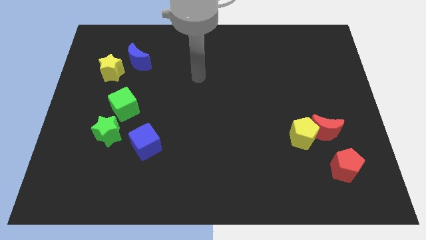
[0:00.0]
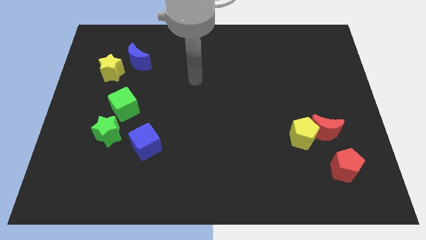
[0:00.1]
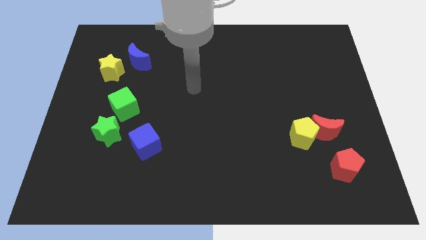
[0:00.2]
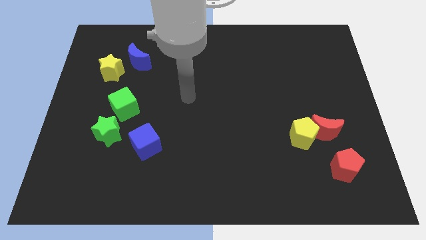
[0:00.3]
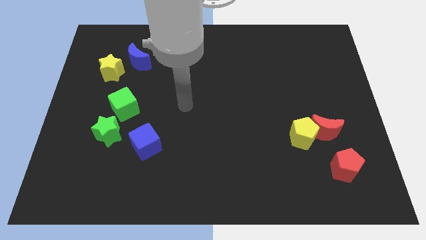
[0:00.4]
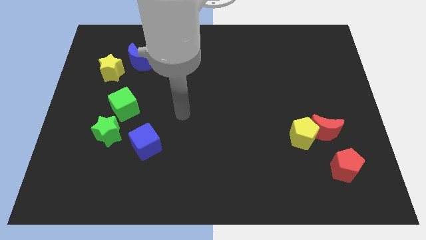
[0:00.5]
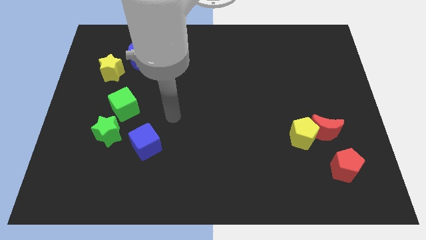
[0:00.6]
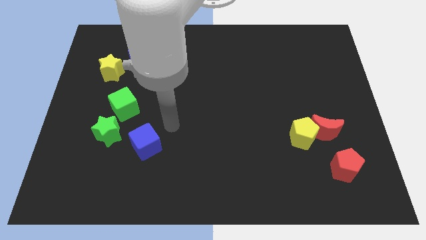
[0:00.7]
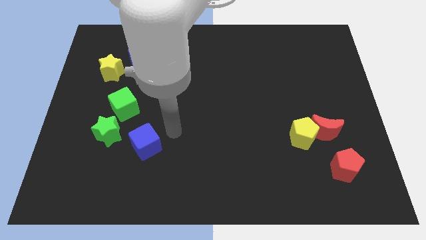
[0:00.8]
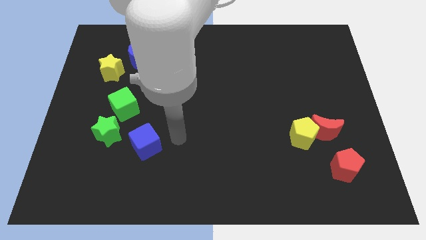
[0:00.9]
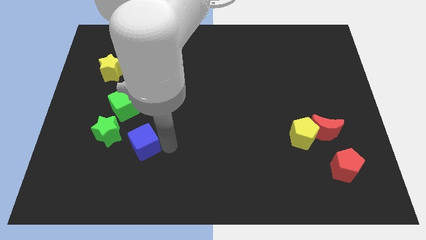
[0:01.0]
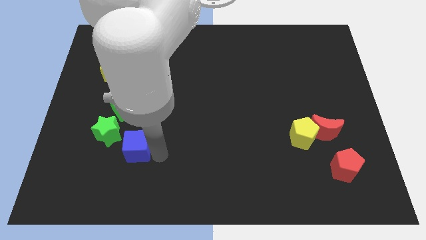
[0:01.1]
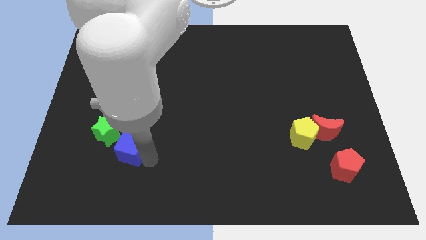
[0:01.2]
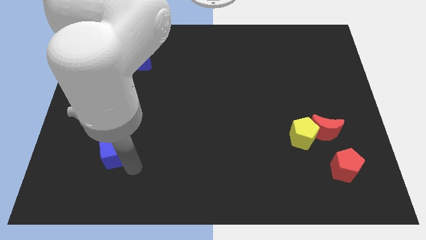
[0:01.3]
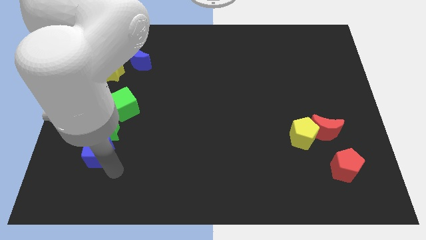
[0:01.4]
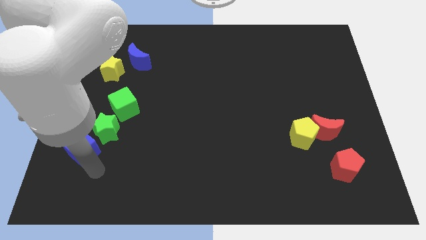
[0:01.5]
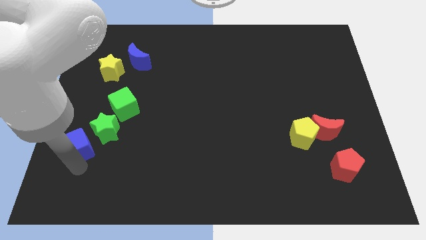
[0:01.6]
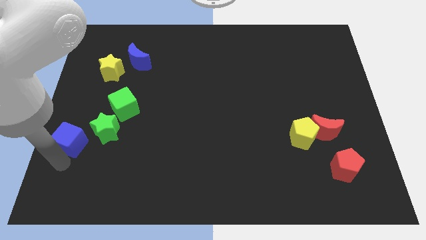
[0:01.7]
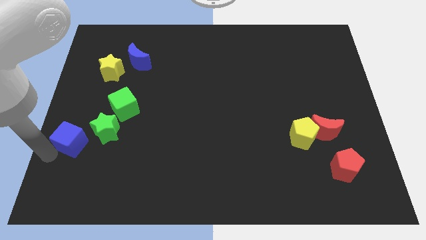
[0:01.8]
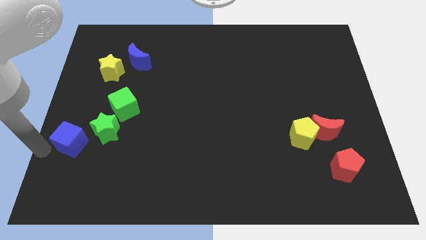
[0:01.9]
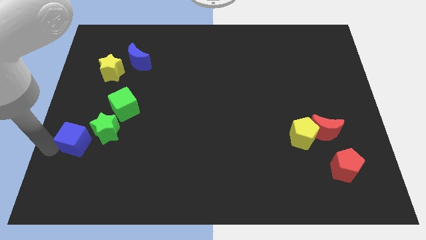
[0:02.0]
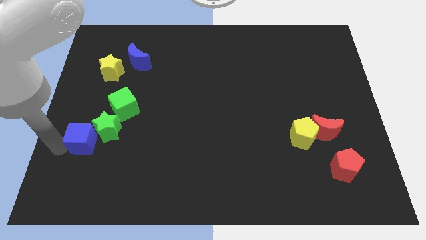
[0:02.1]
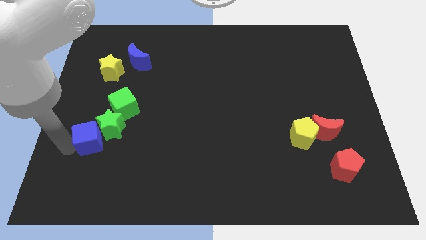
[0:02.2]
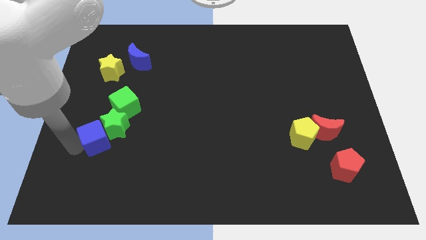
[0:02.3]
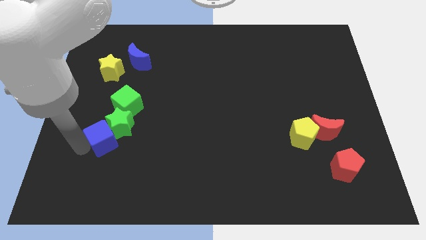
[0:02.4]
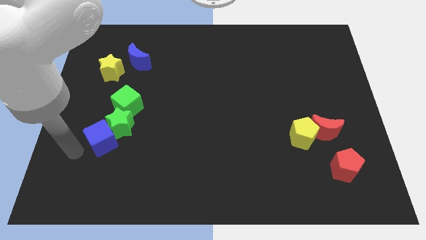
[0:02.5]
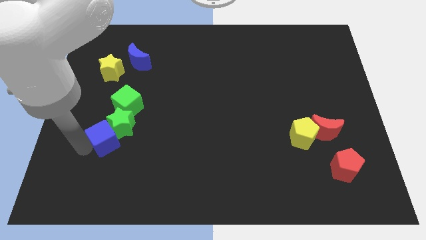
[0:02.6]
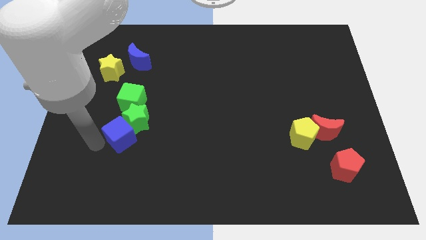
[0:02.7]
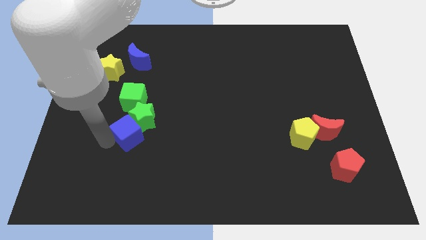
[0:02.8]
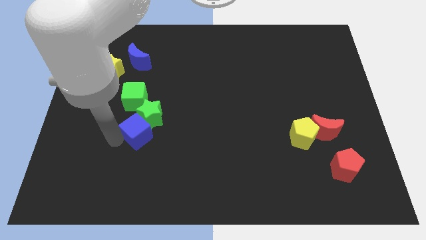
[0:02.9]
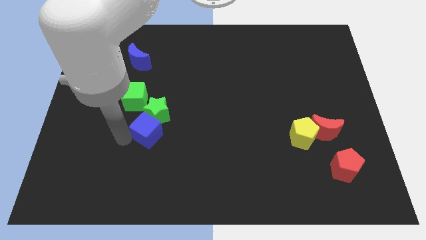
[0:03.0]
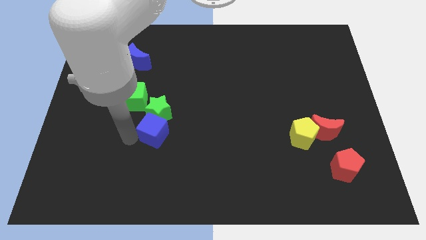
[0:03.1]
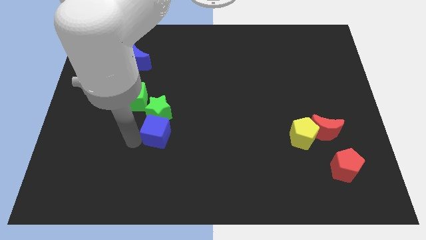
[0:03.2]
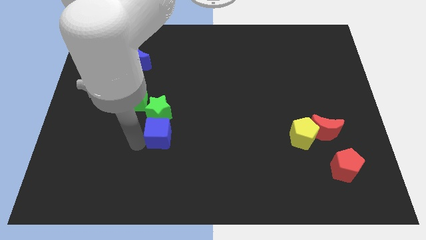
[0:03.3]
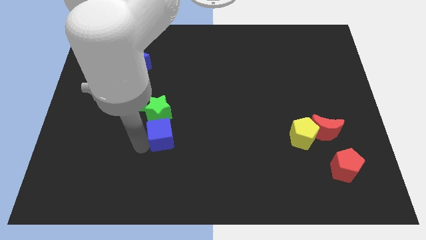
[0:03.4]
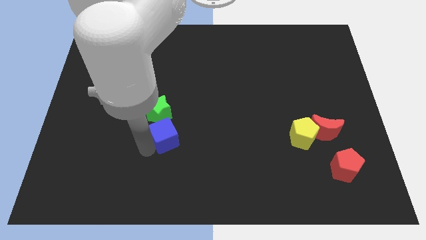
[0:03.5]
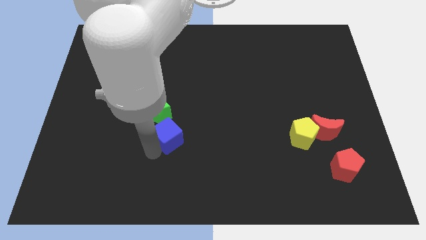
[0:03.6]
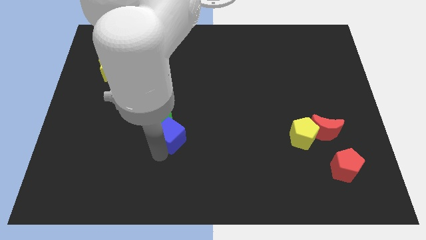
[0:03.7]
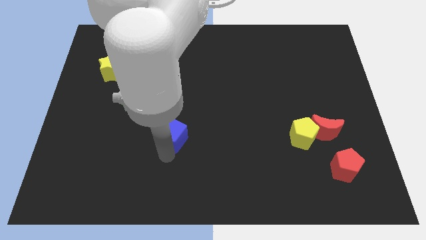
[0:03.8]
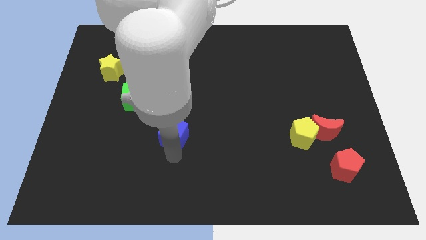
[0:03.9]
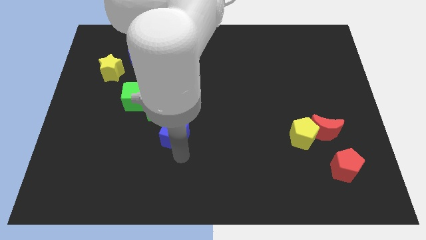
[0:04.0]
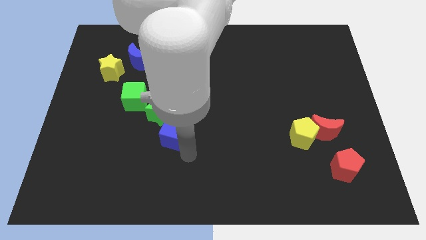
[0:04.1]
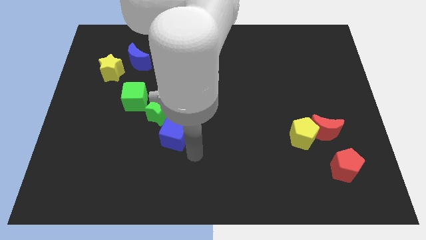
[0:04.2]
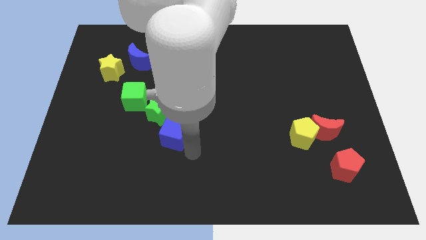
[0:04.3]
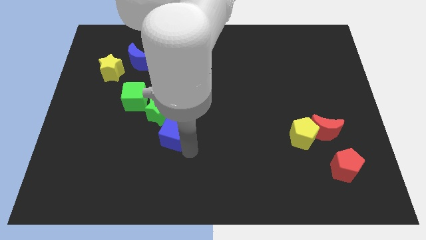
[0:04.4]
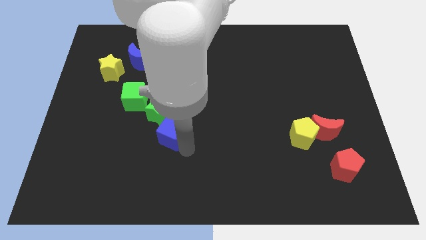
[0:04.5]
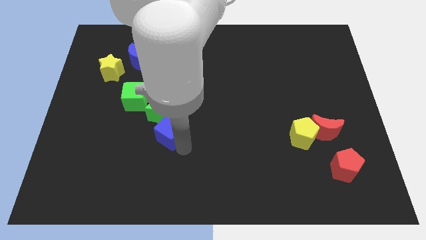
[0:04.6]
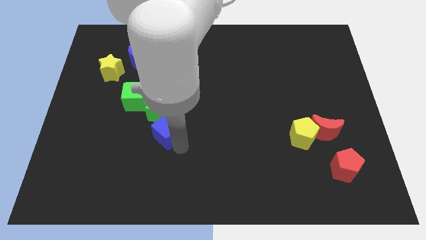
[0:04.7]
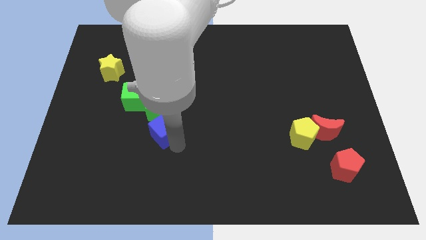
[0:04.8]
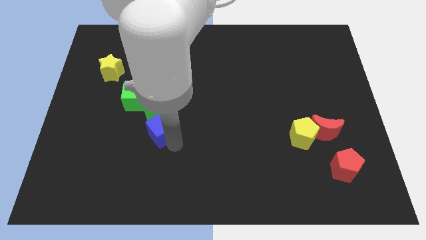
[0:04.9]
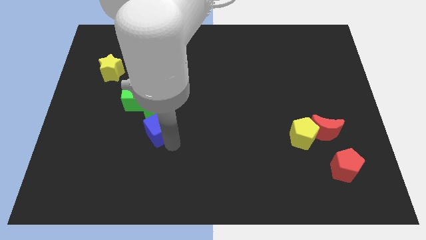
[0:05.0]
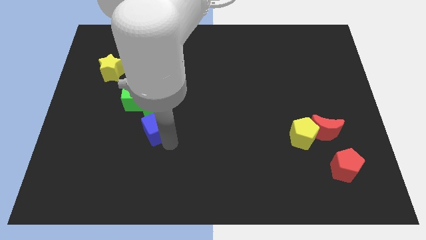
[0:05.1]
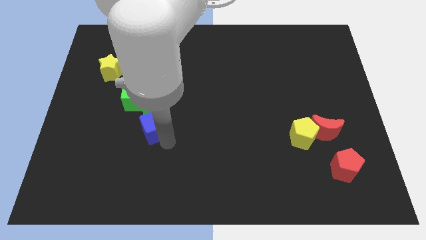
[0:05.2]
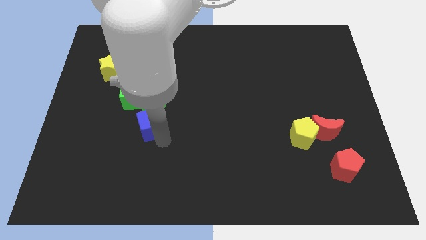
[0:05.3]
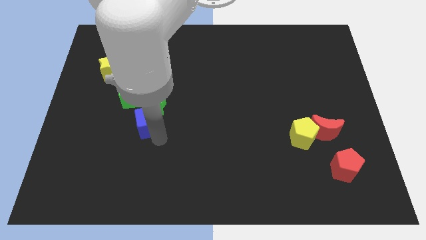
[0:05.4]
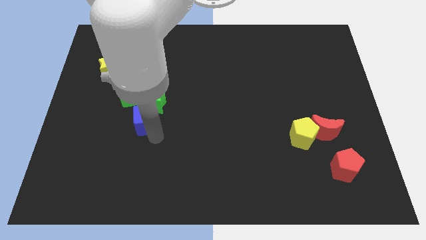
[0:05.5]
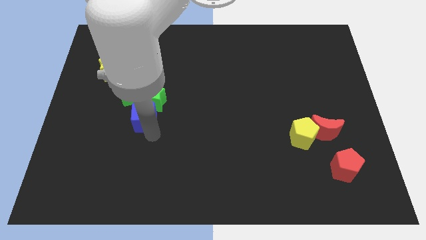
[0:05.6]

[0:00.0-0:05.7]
slide the blue cube somewhat upwards

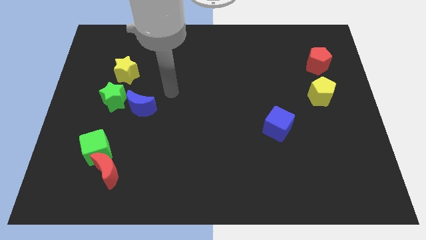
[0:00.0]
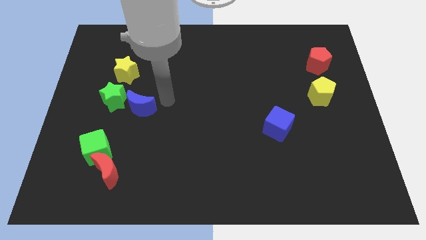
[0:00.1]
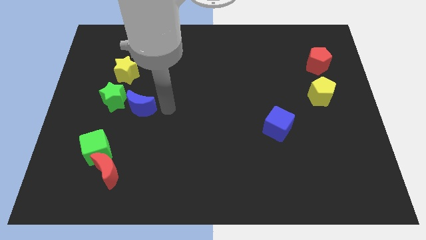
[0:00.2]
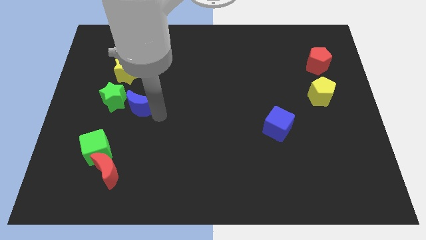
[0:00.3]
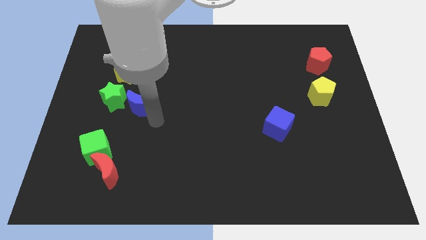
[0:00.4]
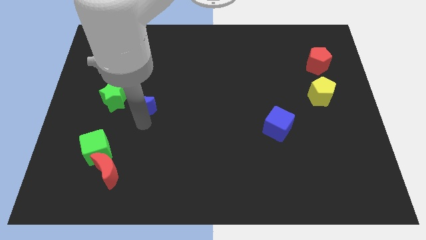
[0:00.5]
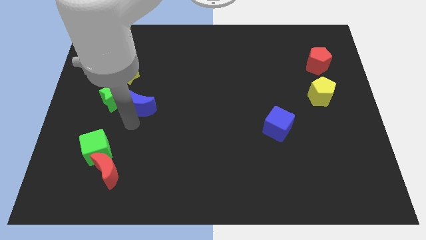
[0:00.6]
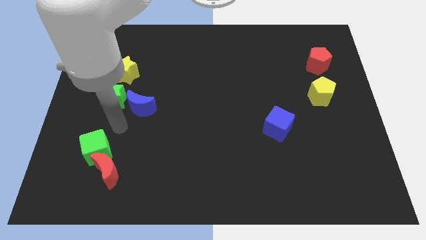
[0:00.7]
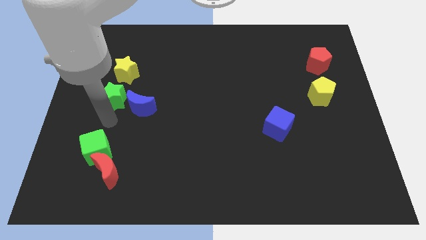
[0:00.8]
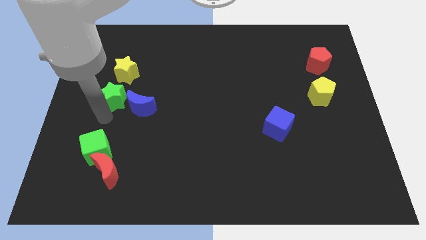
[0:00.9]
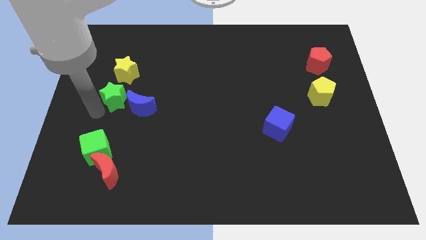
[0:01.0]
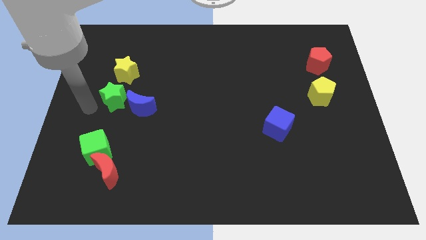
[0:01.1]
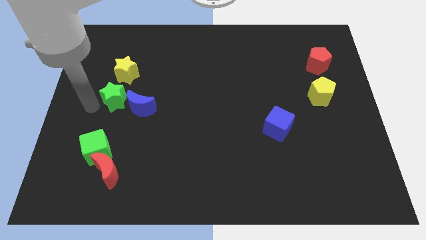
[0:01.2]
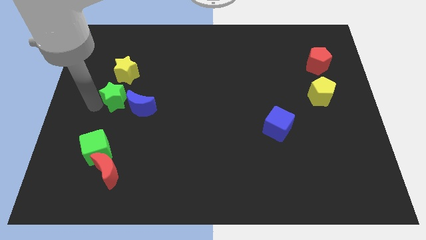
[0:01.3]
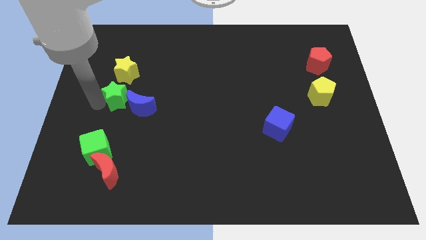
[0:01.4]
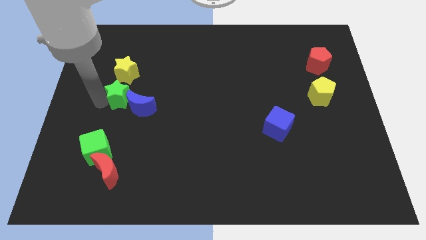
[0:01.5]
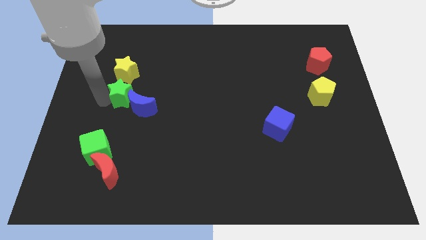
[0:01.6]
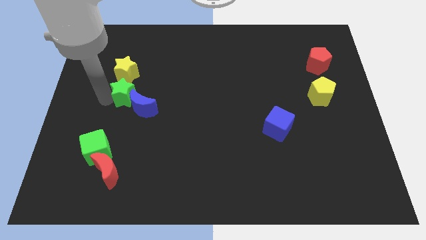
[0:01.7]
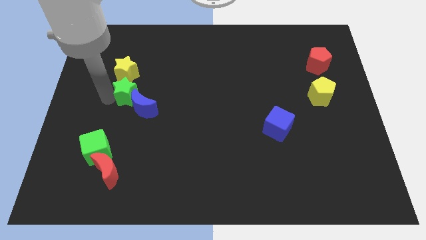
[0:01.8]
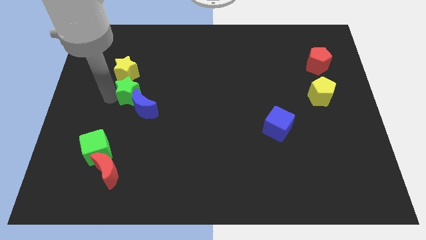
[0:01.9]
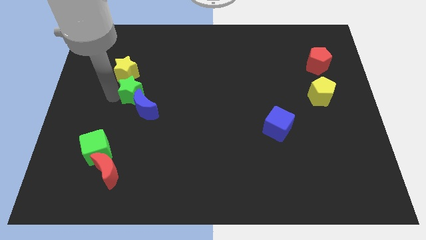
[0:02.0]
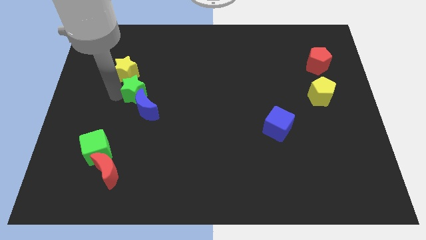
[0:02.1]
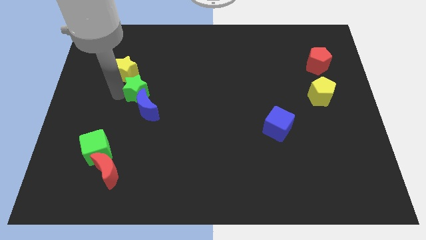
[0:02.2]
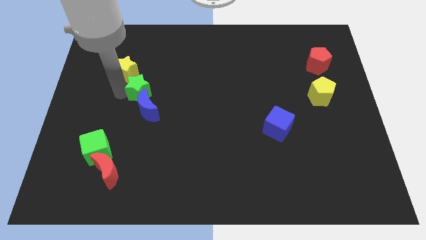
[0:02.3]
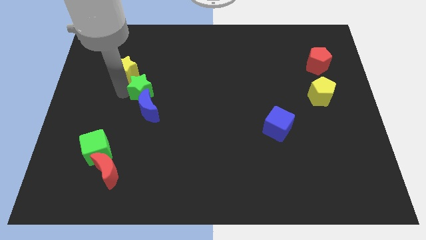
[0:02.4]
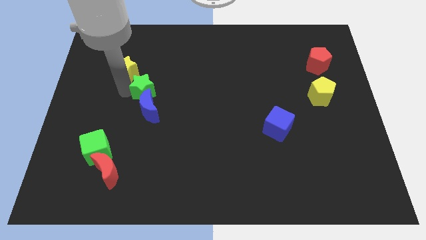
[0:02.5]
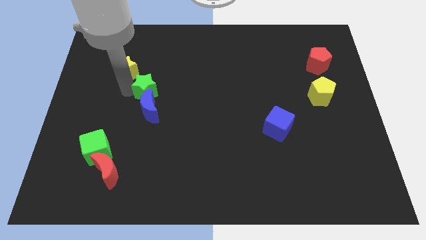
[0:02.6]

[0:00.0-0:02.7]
move the green star right a bit
